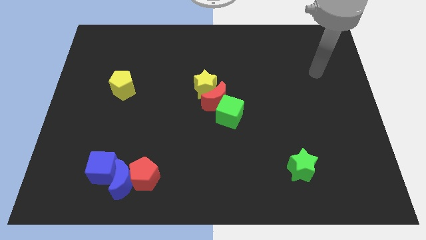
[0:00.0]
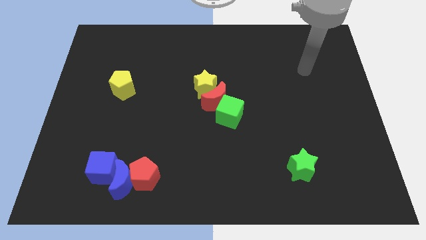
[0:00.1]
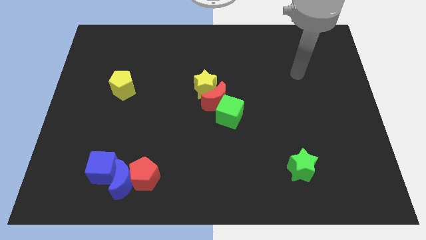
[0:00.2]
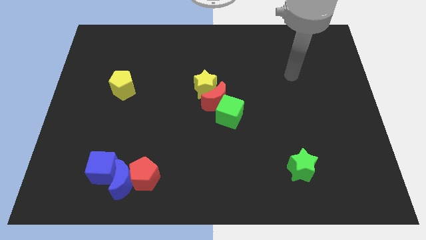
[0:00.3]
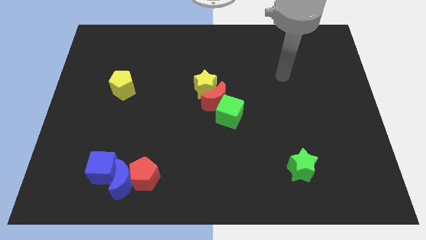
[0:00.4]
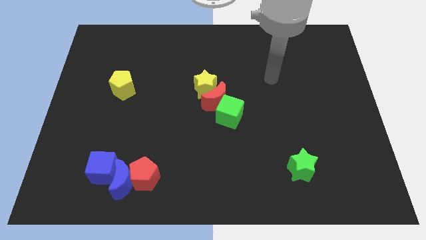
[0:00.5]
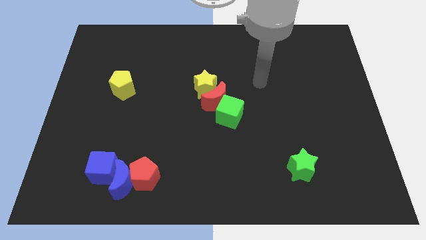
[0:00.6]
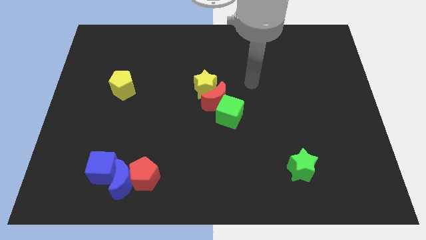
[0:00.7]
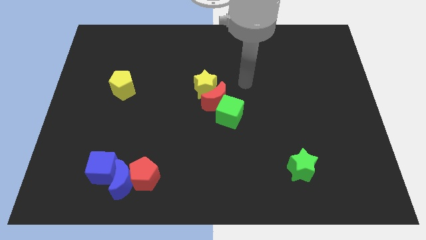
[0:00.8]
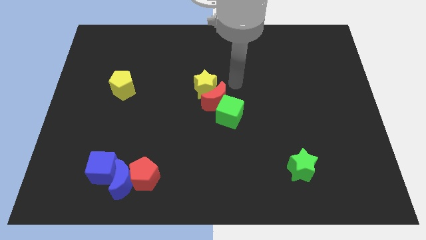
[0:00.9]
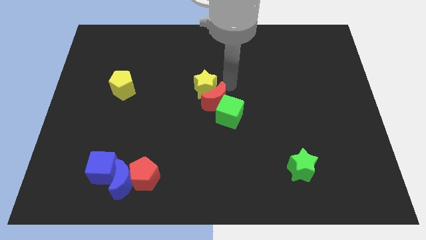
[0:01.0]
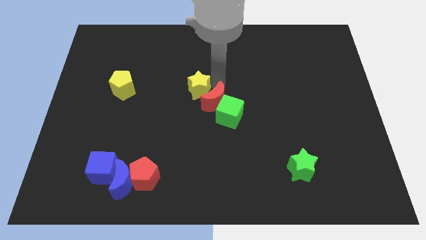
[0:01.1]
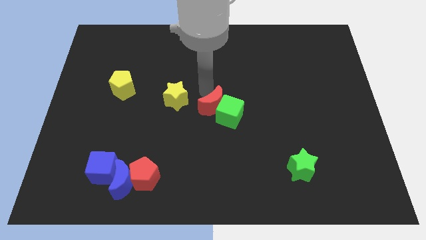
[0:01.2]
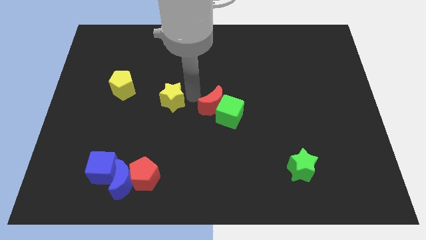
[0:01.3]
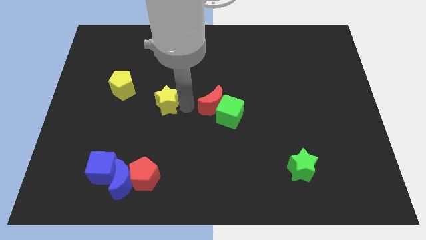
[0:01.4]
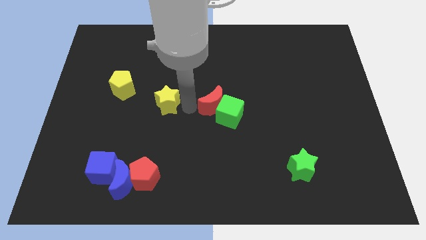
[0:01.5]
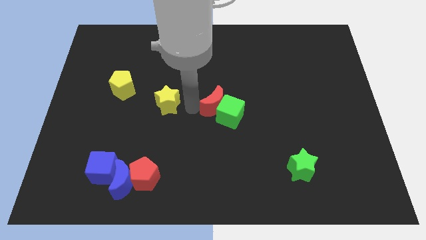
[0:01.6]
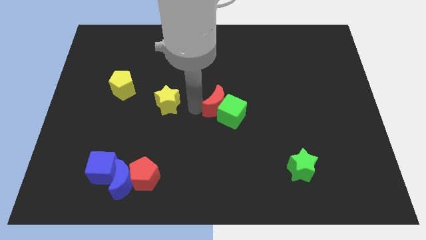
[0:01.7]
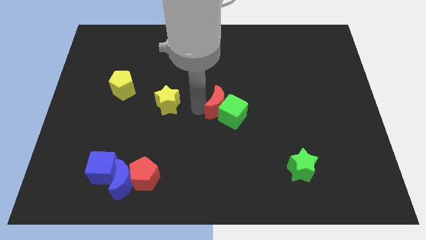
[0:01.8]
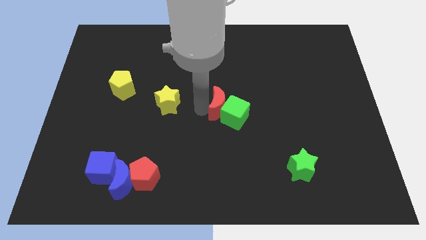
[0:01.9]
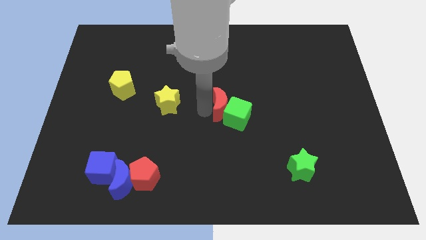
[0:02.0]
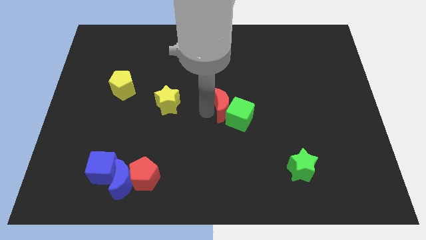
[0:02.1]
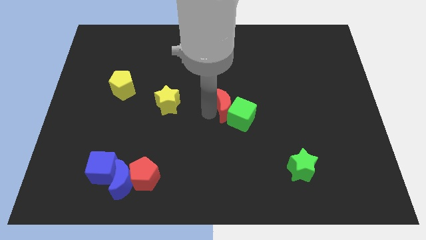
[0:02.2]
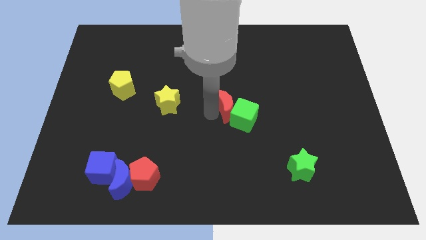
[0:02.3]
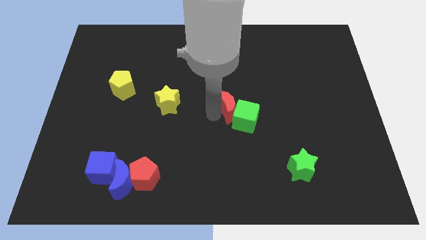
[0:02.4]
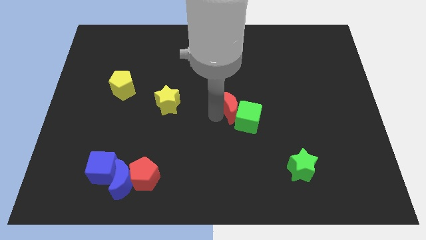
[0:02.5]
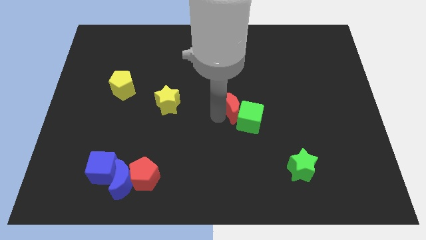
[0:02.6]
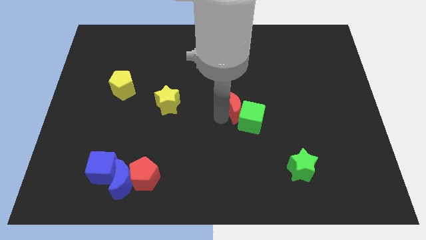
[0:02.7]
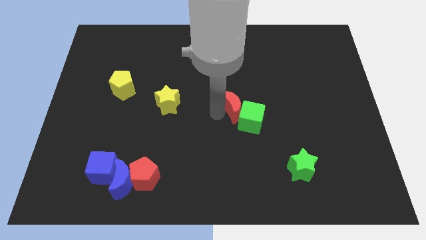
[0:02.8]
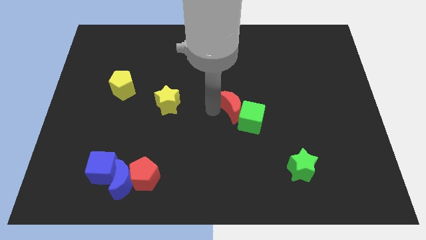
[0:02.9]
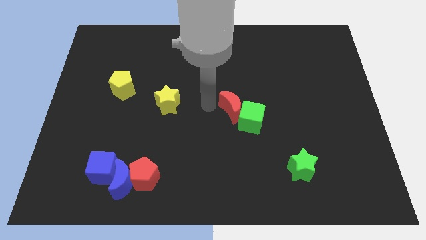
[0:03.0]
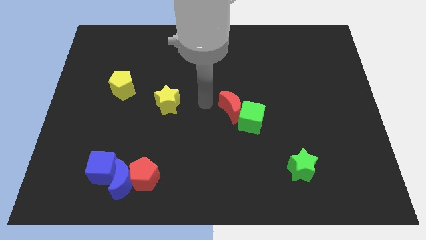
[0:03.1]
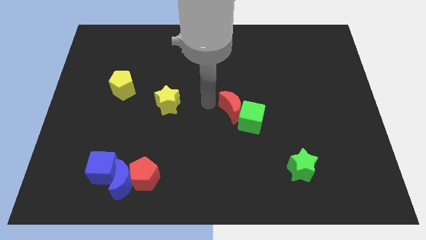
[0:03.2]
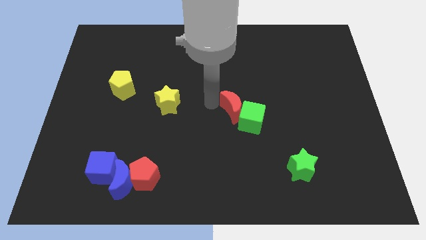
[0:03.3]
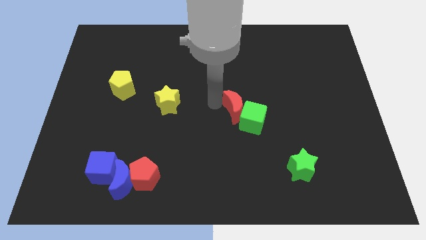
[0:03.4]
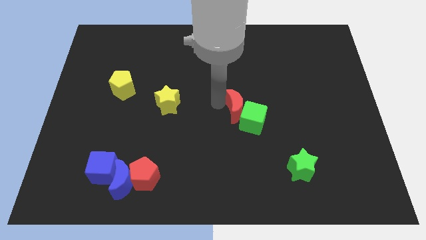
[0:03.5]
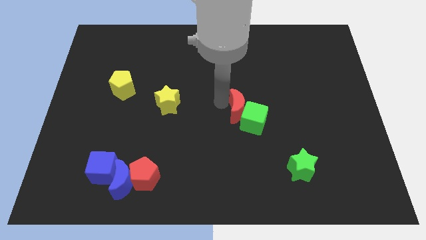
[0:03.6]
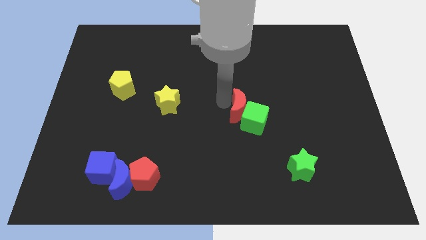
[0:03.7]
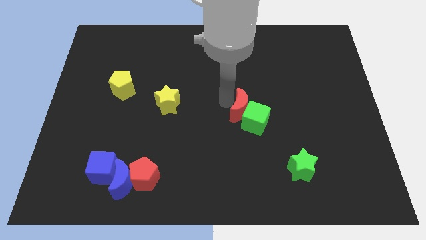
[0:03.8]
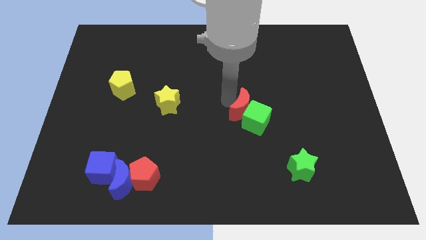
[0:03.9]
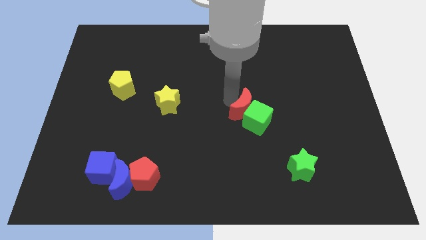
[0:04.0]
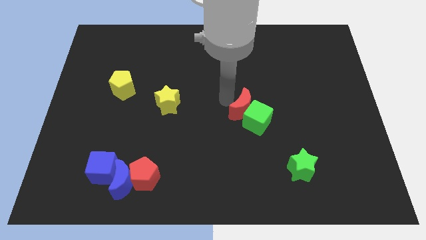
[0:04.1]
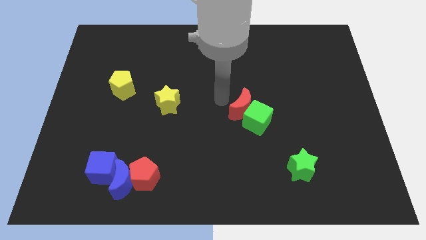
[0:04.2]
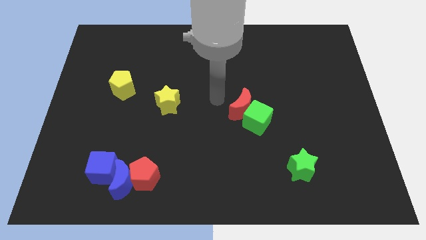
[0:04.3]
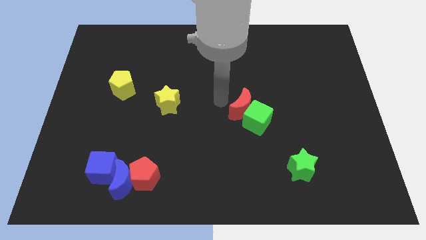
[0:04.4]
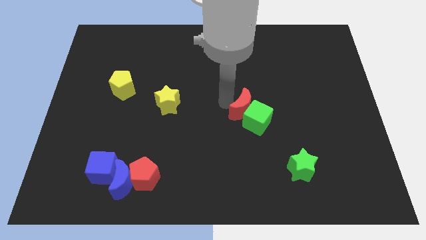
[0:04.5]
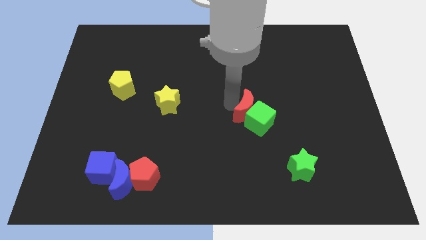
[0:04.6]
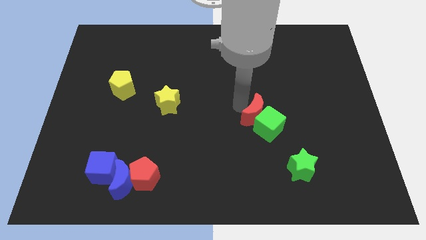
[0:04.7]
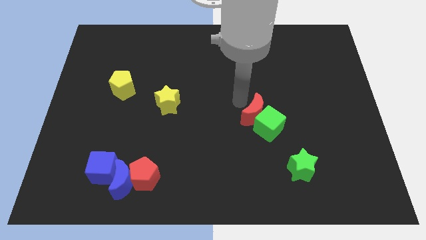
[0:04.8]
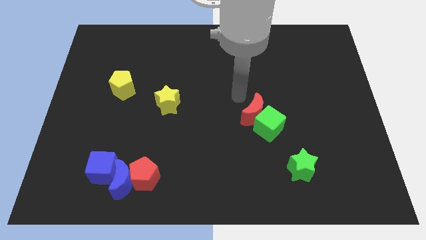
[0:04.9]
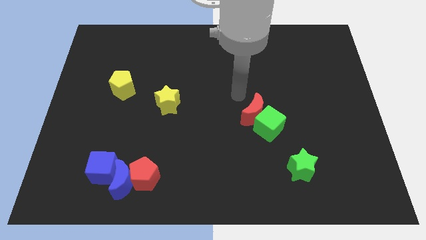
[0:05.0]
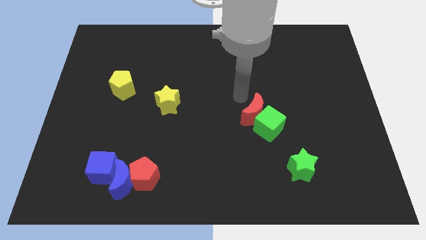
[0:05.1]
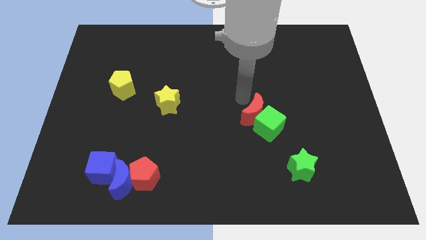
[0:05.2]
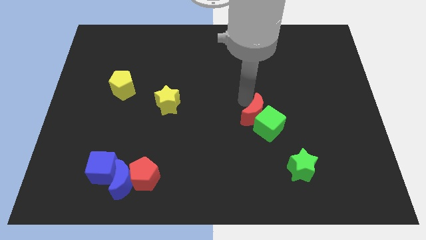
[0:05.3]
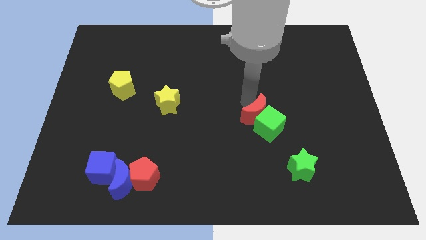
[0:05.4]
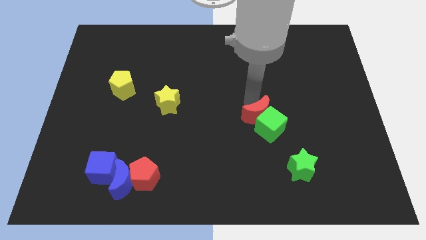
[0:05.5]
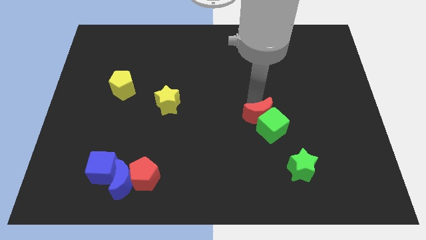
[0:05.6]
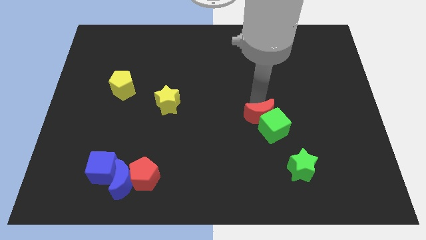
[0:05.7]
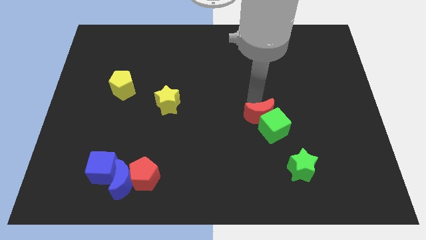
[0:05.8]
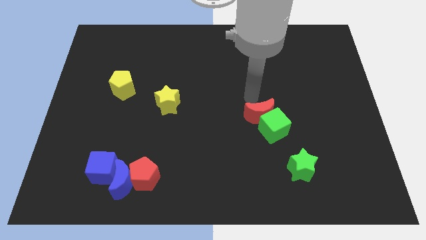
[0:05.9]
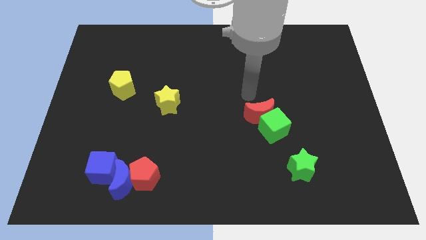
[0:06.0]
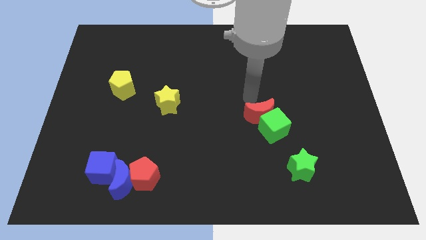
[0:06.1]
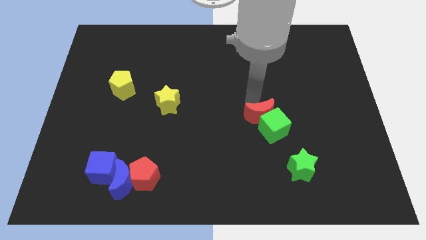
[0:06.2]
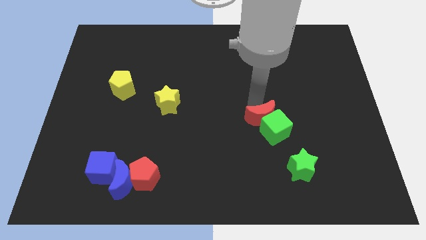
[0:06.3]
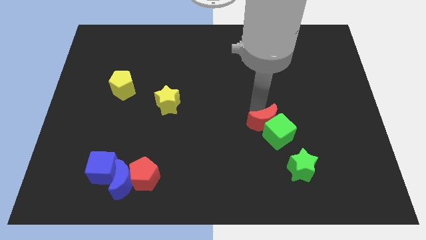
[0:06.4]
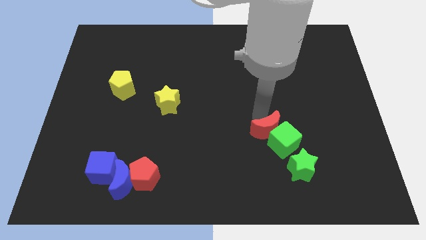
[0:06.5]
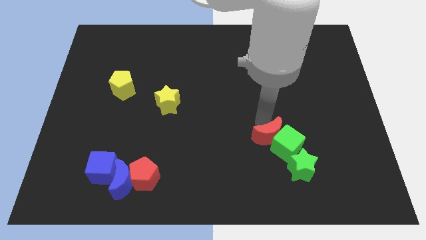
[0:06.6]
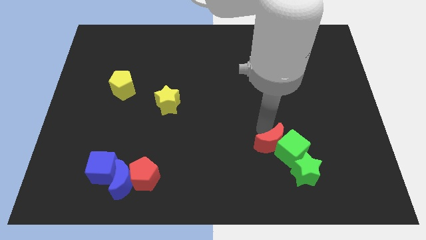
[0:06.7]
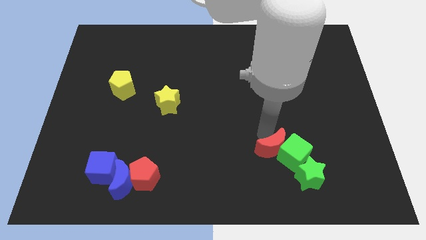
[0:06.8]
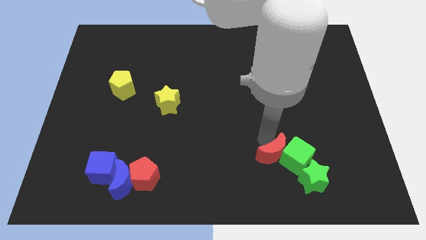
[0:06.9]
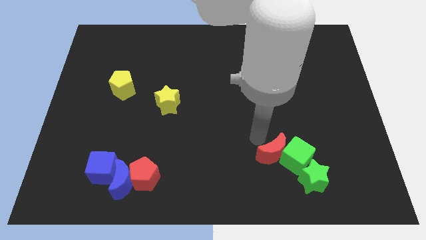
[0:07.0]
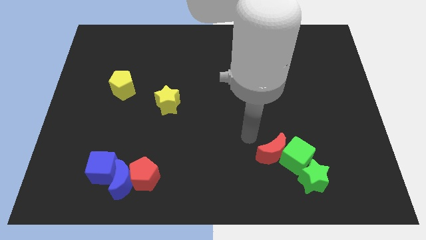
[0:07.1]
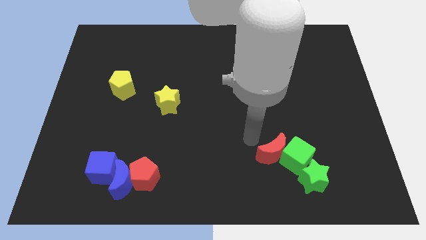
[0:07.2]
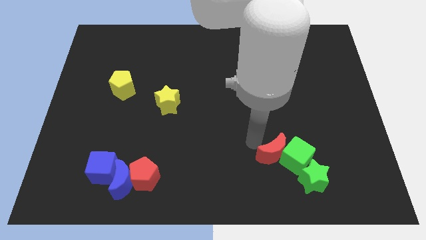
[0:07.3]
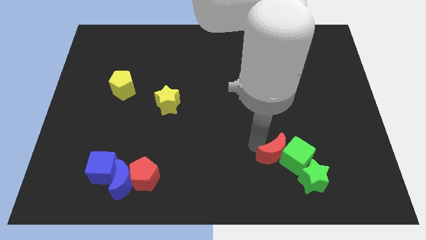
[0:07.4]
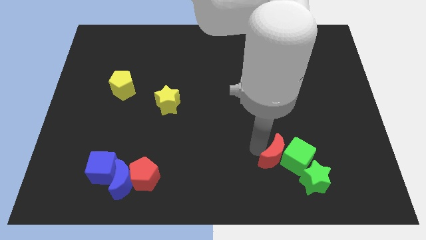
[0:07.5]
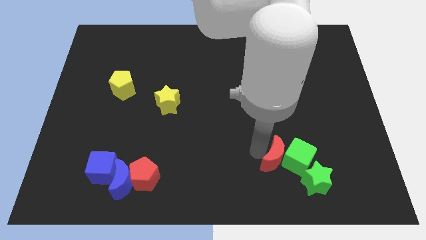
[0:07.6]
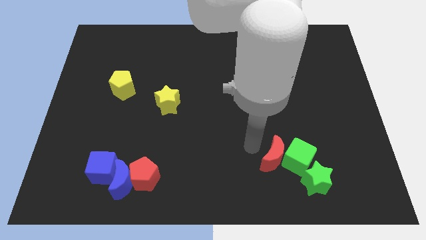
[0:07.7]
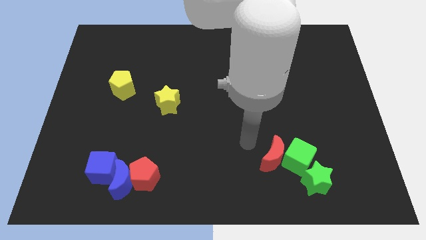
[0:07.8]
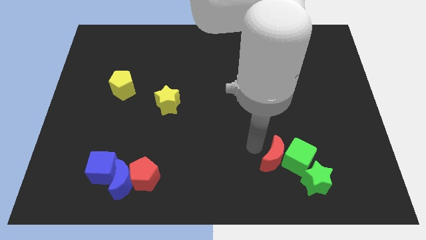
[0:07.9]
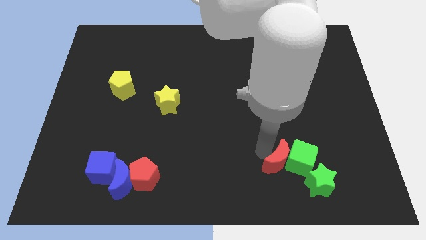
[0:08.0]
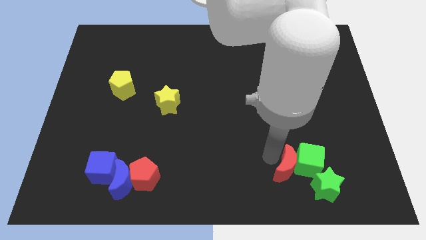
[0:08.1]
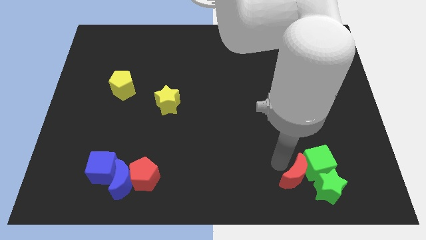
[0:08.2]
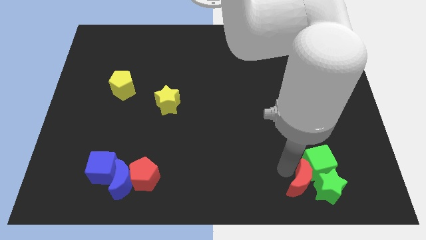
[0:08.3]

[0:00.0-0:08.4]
slide the red moon towards the green star
